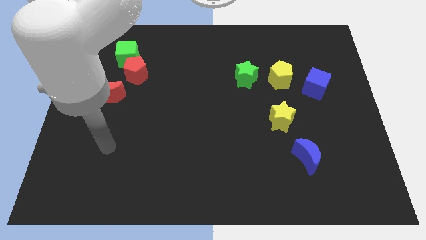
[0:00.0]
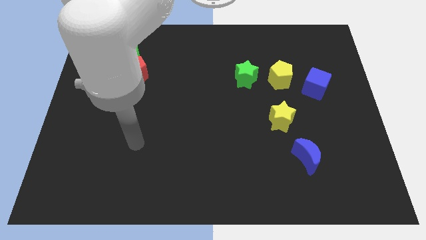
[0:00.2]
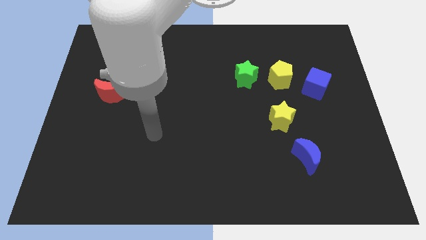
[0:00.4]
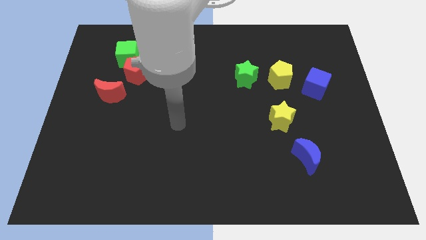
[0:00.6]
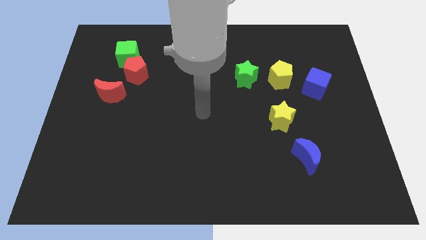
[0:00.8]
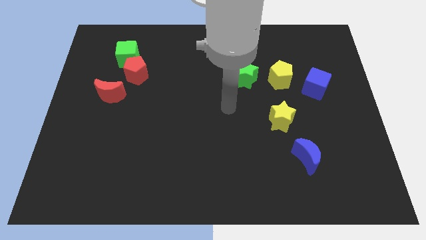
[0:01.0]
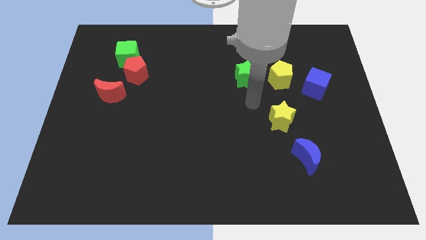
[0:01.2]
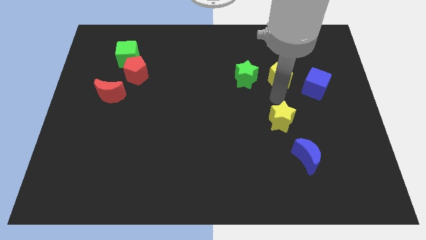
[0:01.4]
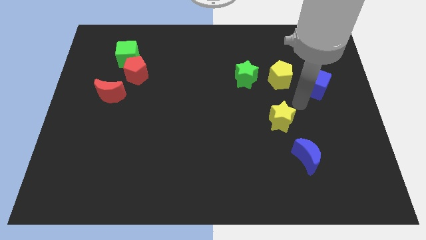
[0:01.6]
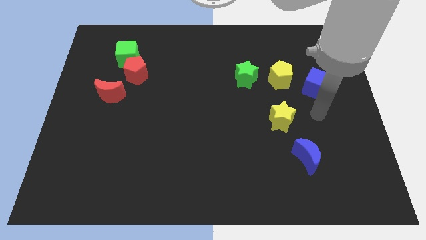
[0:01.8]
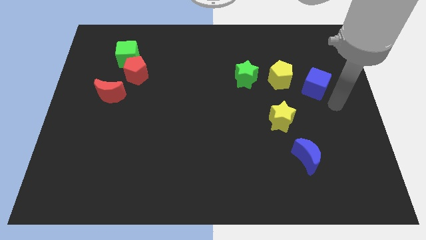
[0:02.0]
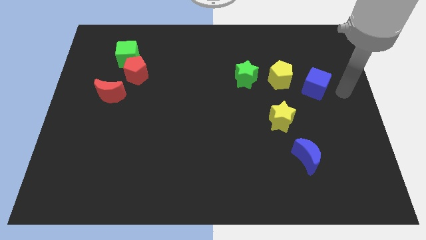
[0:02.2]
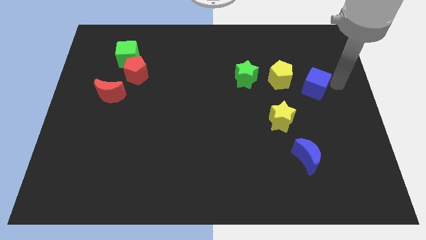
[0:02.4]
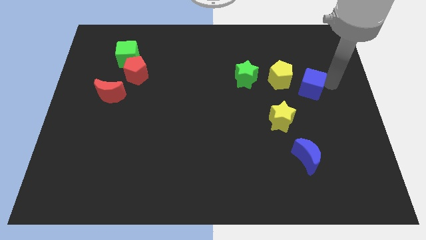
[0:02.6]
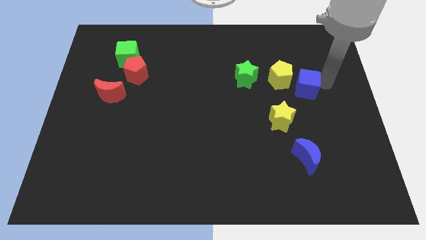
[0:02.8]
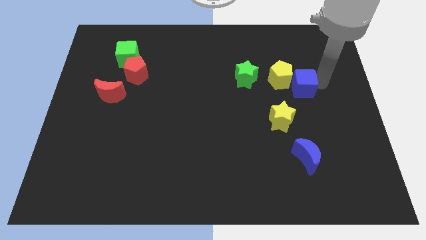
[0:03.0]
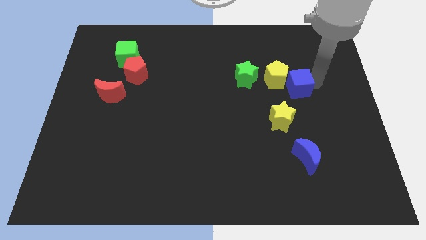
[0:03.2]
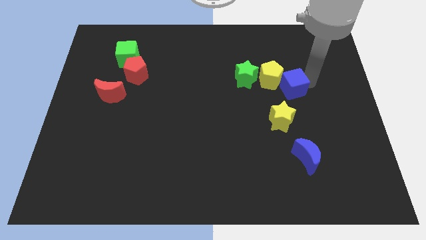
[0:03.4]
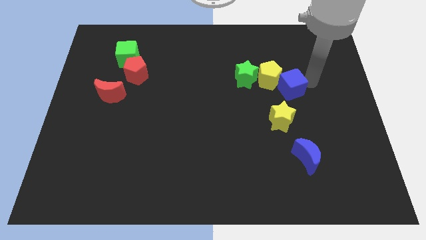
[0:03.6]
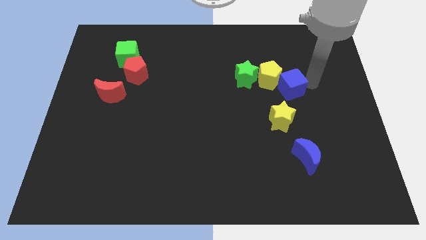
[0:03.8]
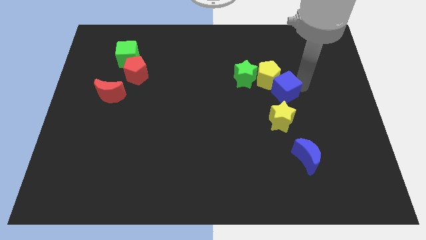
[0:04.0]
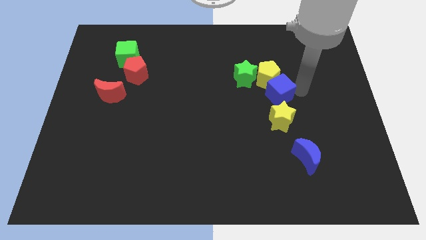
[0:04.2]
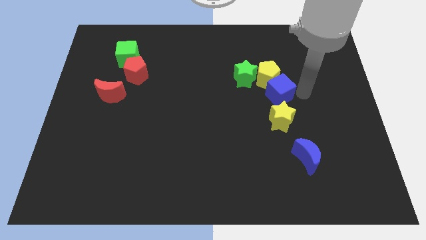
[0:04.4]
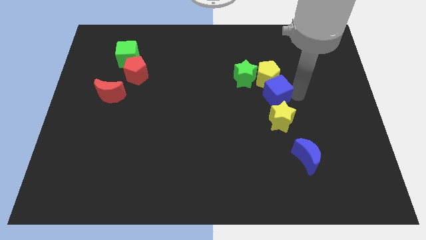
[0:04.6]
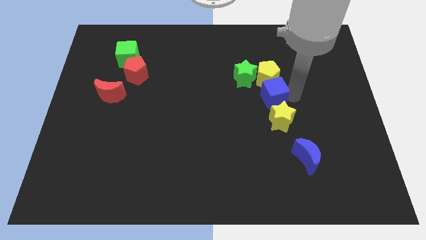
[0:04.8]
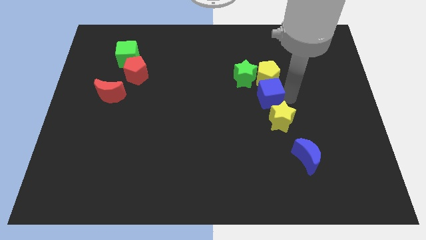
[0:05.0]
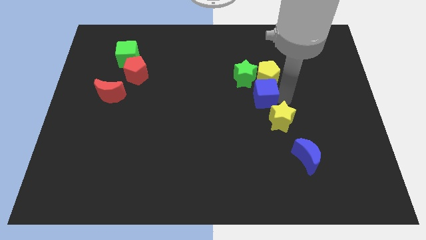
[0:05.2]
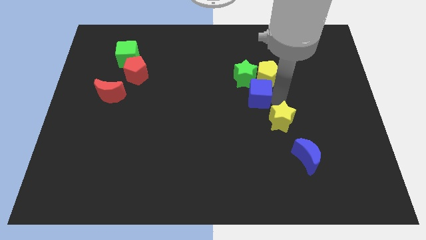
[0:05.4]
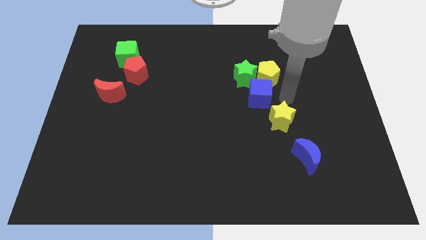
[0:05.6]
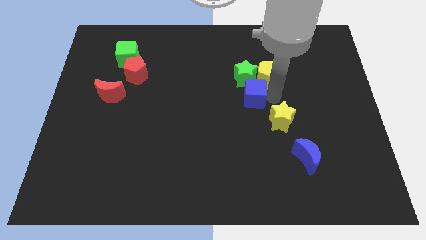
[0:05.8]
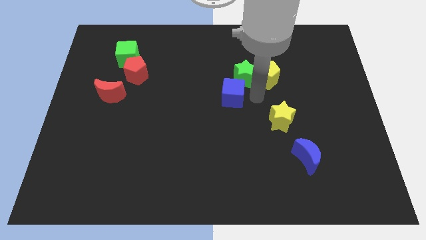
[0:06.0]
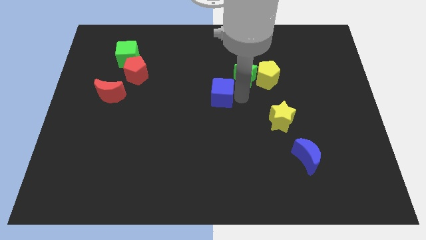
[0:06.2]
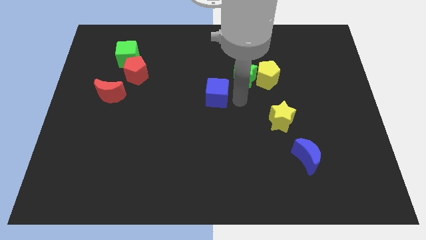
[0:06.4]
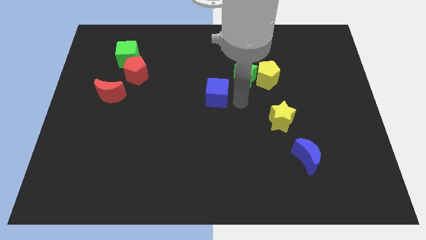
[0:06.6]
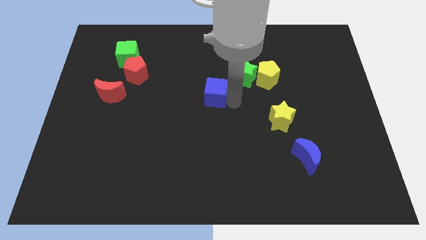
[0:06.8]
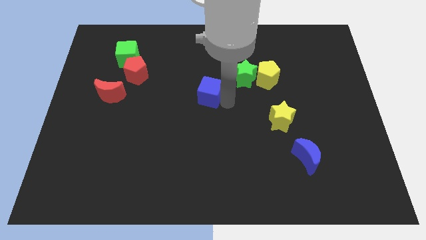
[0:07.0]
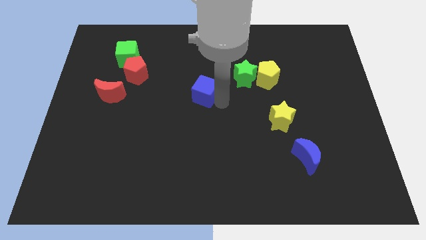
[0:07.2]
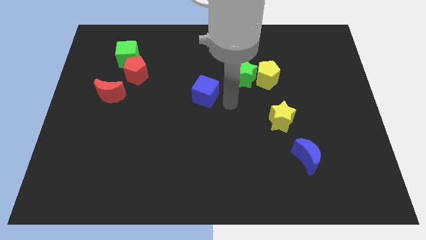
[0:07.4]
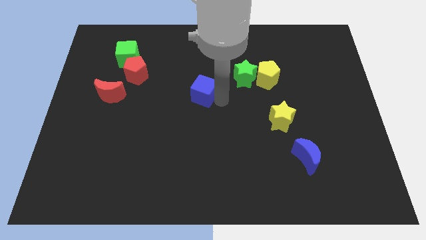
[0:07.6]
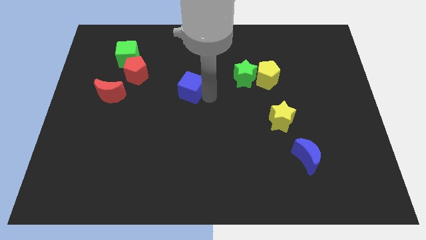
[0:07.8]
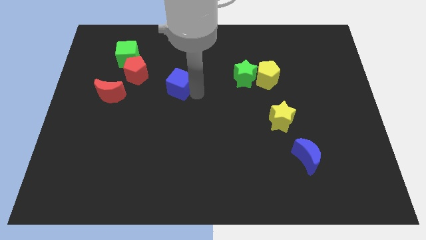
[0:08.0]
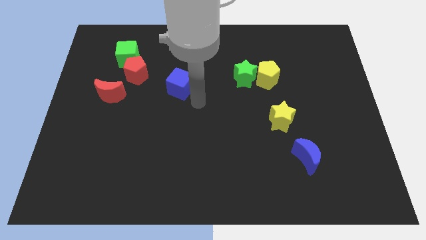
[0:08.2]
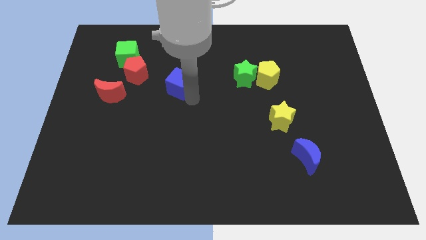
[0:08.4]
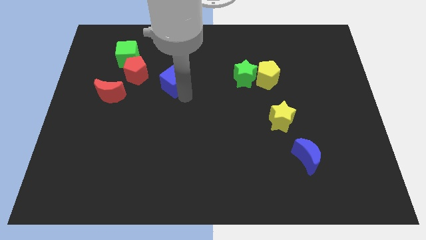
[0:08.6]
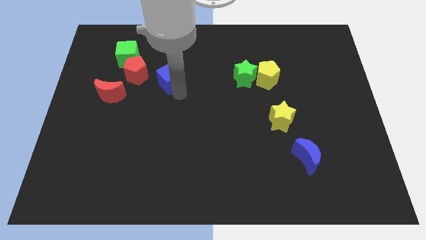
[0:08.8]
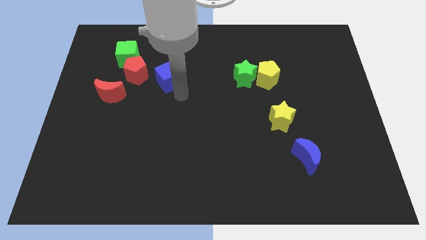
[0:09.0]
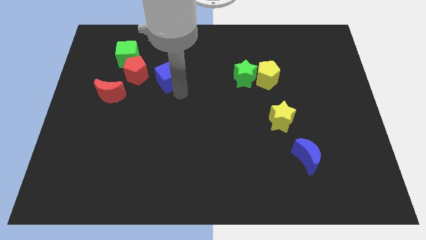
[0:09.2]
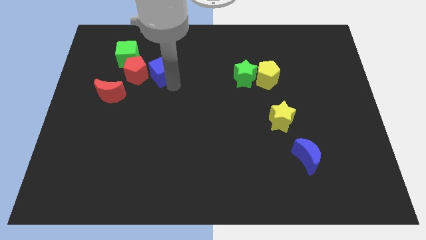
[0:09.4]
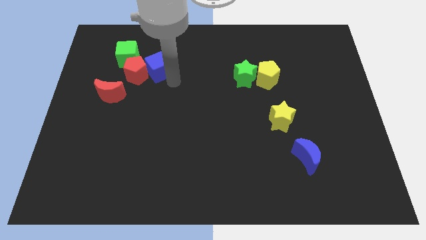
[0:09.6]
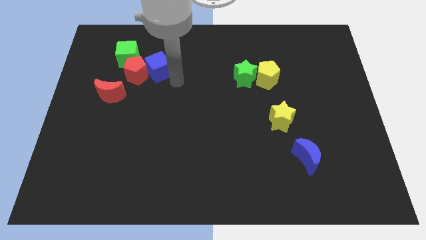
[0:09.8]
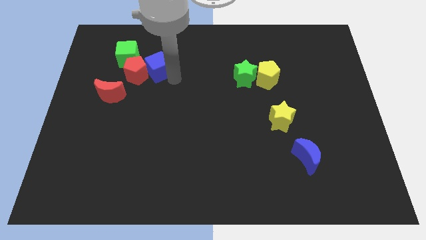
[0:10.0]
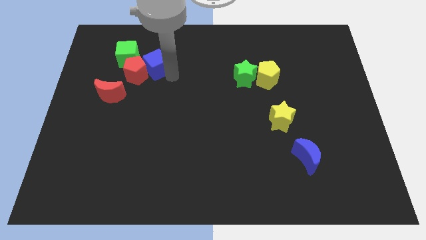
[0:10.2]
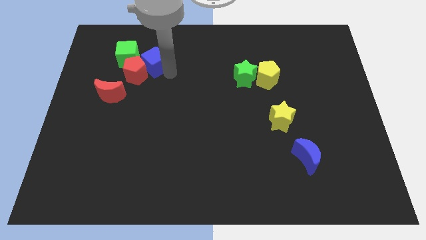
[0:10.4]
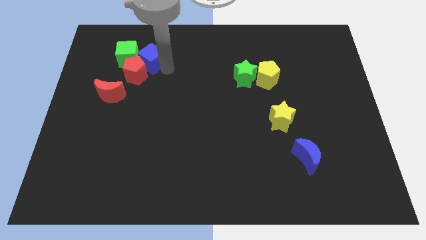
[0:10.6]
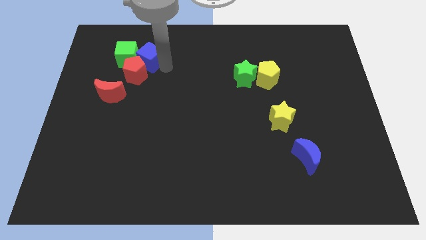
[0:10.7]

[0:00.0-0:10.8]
put the blue cube towards the green cube

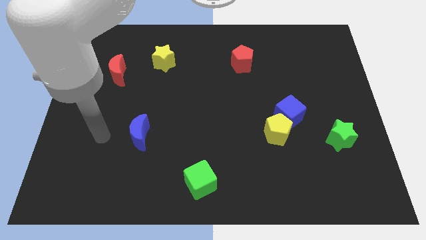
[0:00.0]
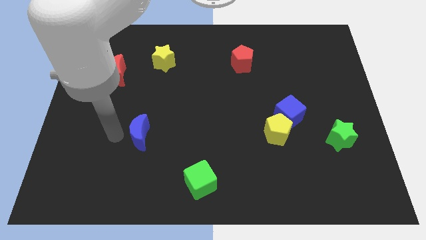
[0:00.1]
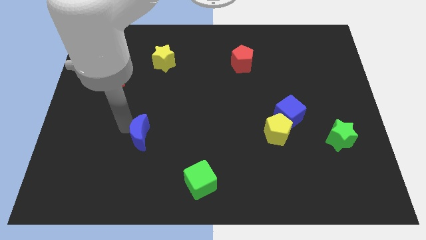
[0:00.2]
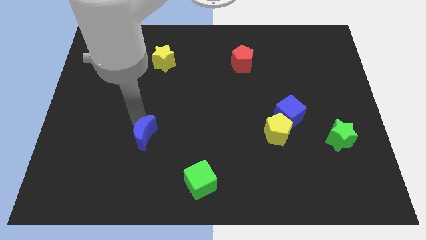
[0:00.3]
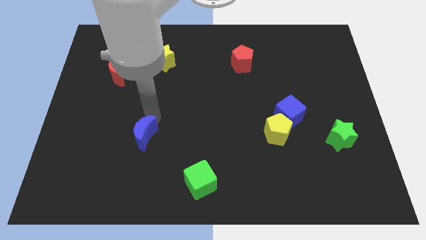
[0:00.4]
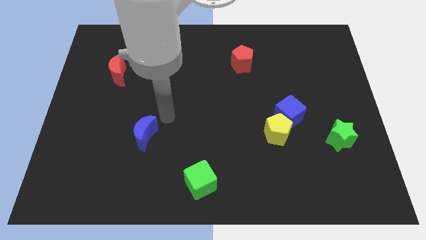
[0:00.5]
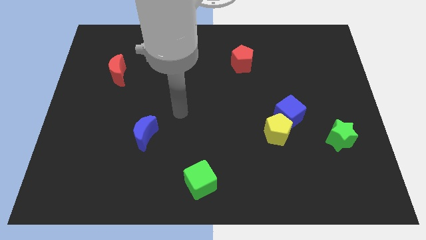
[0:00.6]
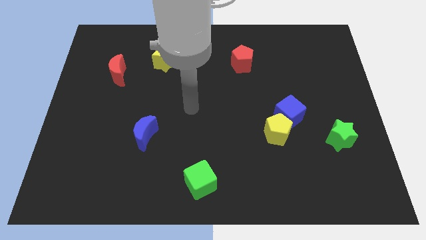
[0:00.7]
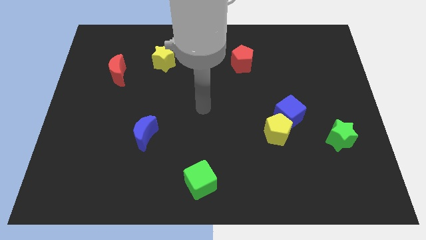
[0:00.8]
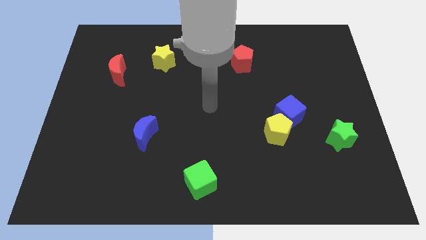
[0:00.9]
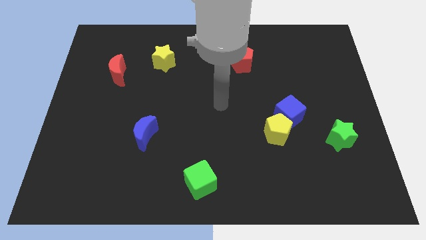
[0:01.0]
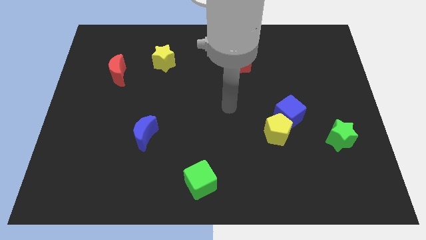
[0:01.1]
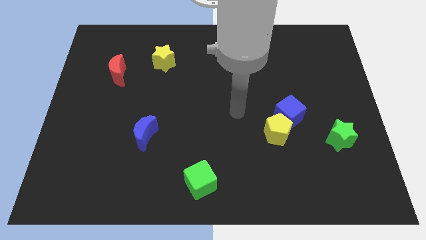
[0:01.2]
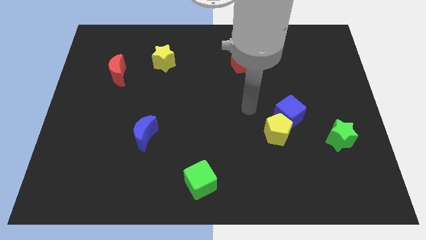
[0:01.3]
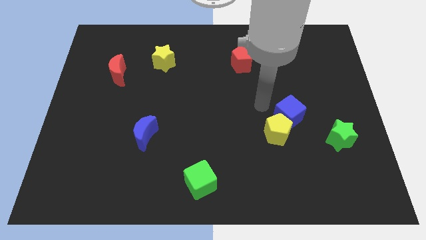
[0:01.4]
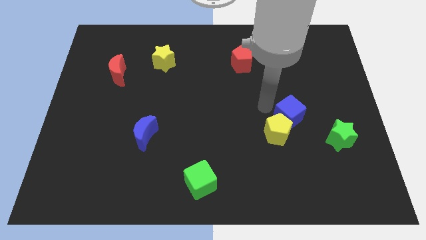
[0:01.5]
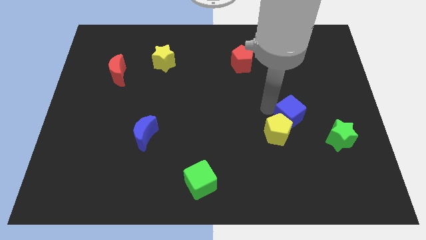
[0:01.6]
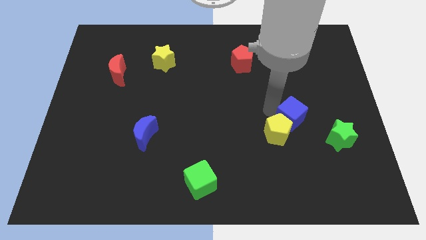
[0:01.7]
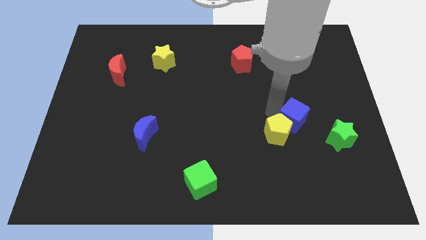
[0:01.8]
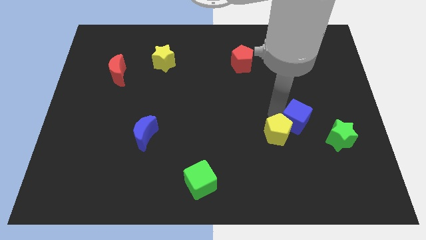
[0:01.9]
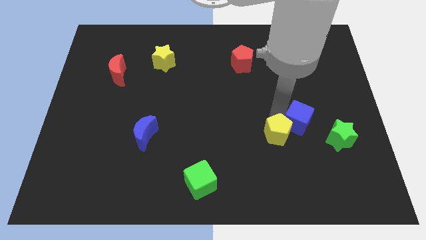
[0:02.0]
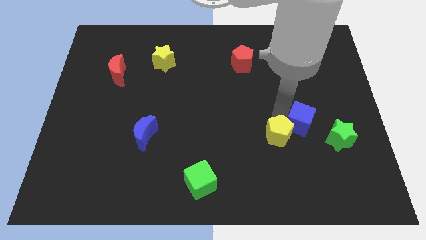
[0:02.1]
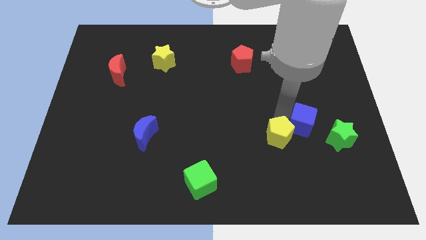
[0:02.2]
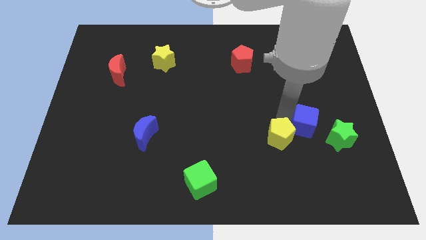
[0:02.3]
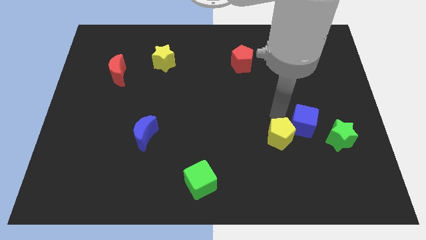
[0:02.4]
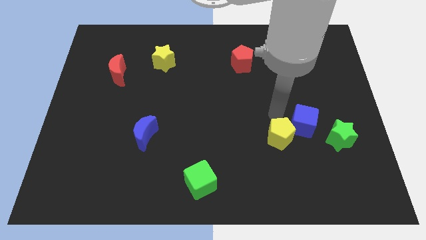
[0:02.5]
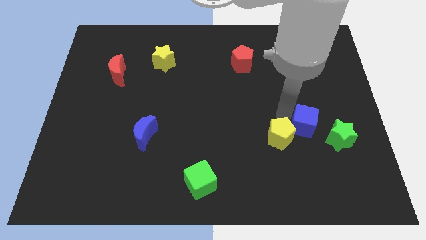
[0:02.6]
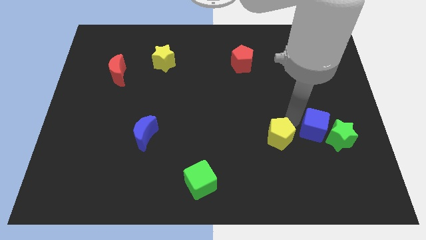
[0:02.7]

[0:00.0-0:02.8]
move the blue cube close to the green star
